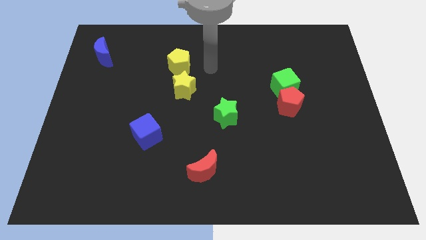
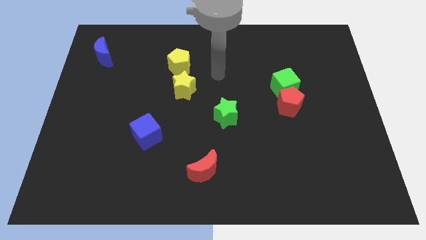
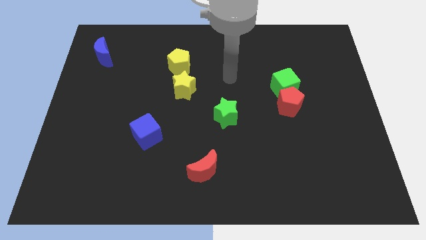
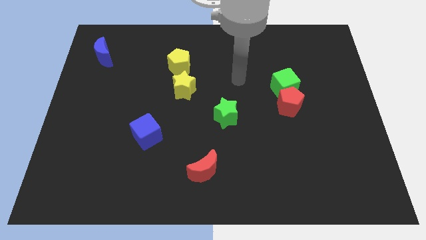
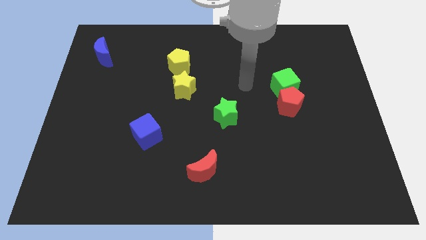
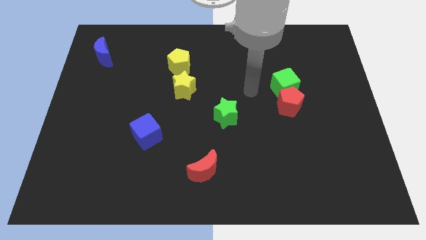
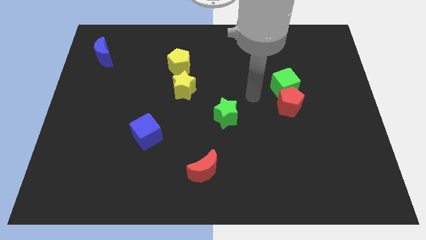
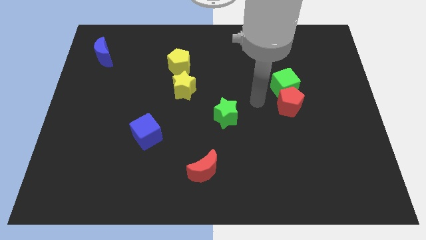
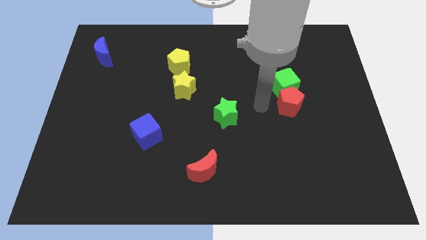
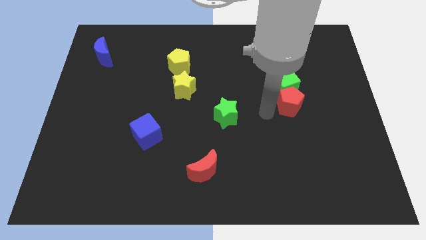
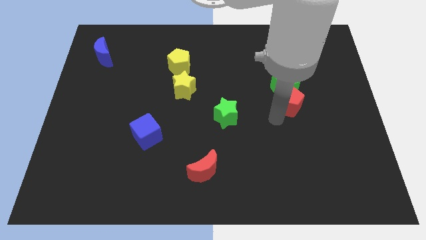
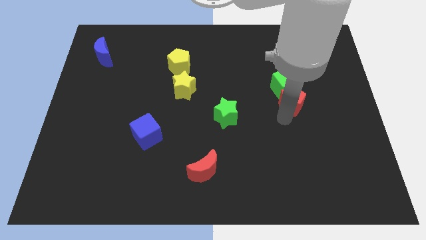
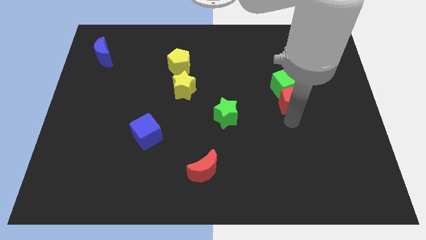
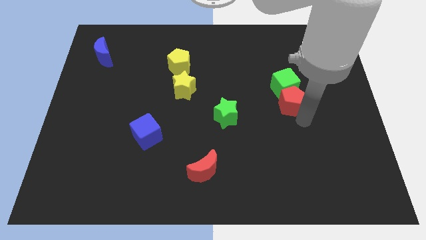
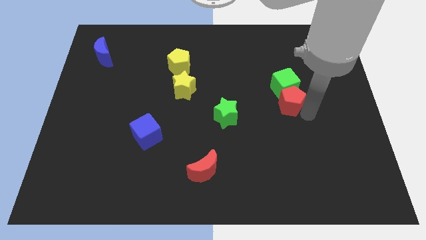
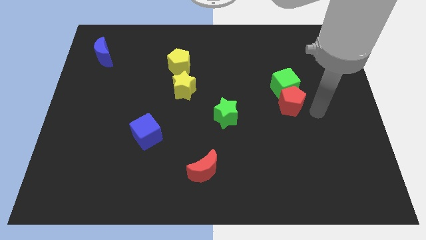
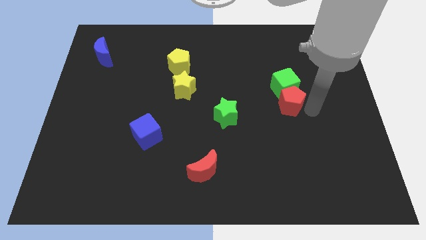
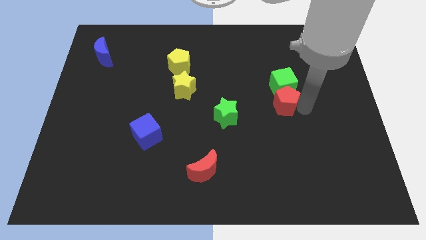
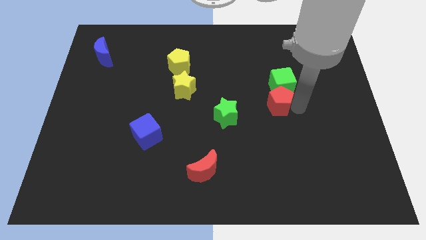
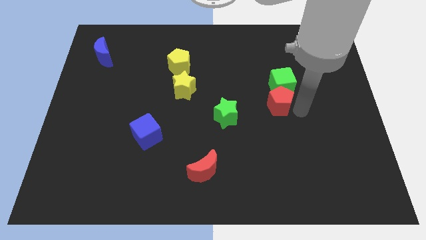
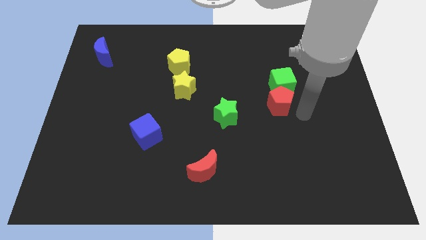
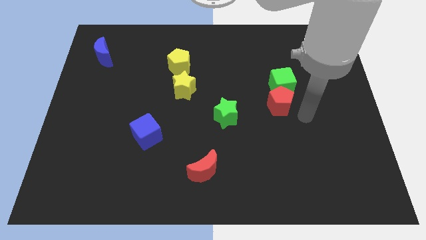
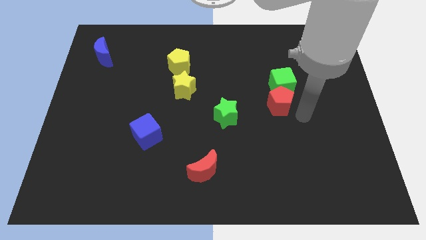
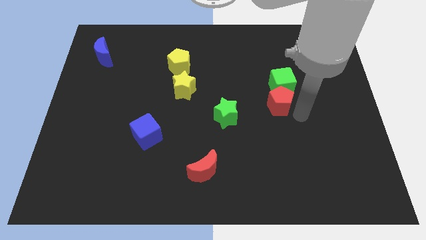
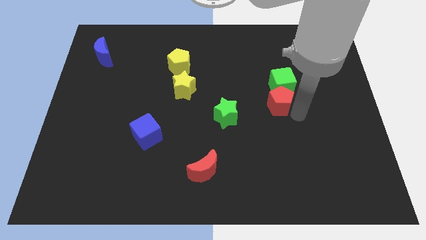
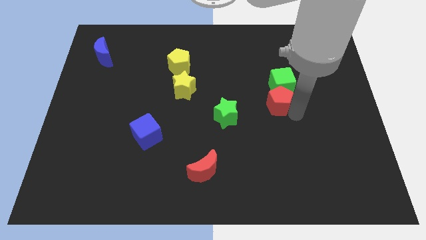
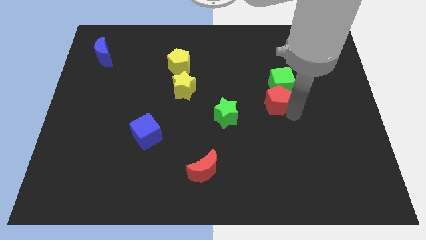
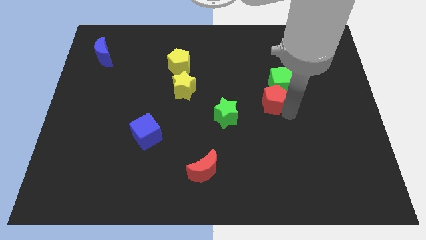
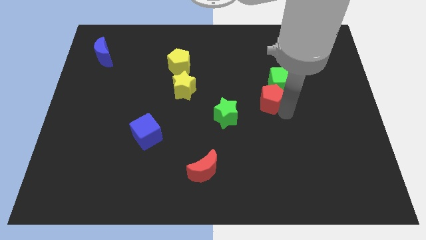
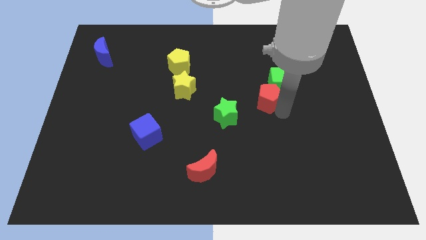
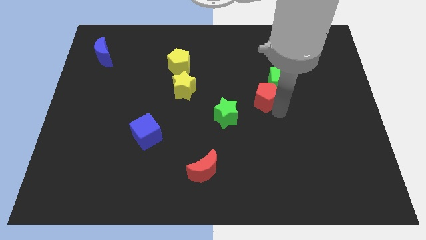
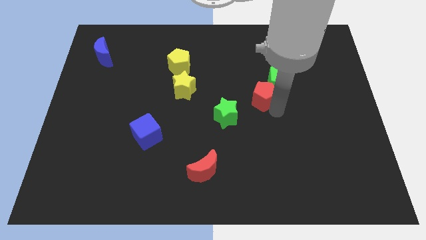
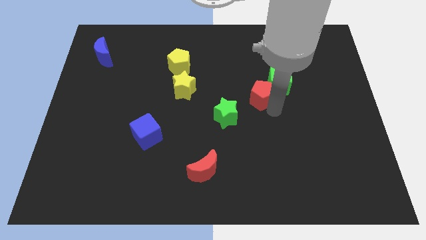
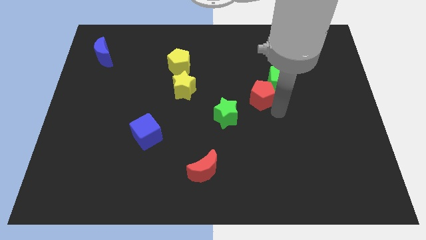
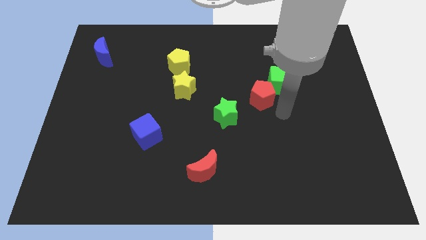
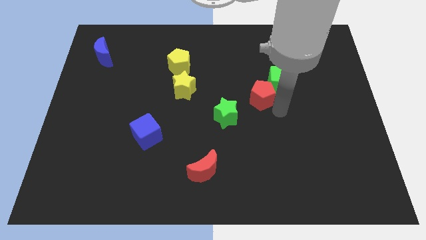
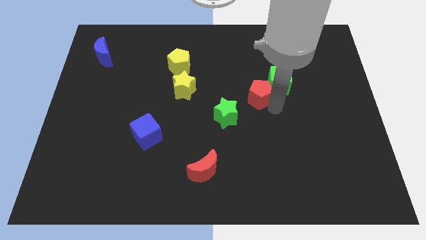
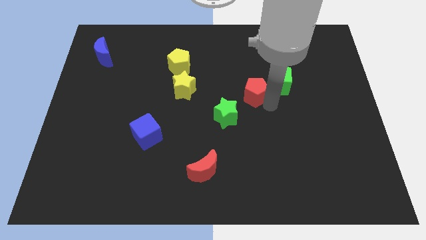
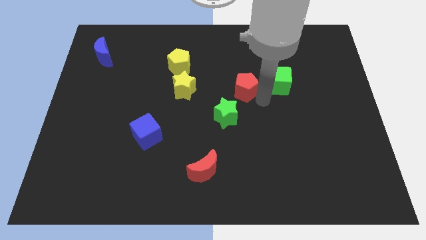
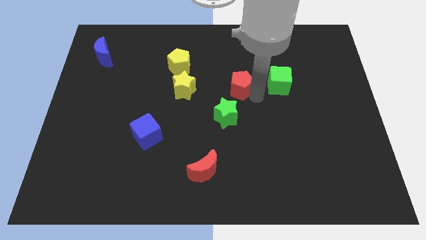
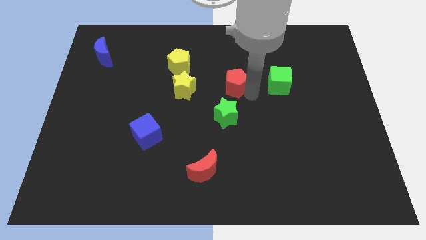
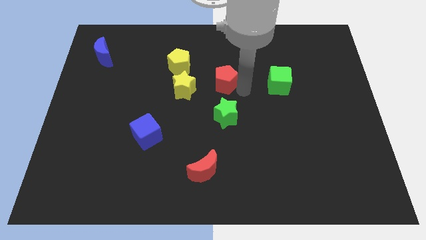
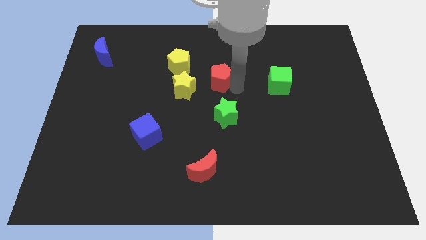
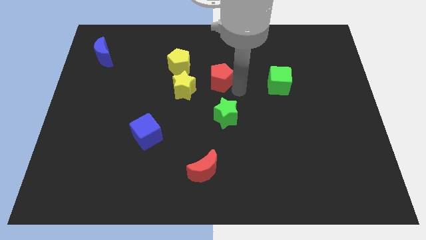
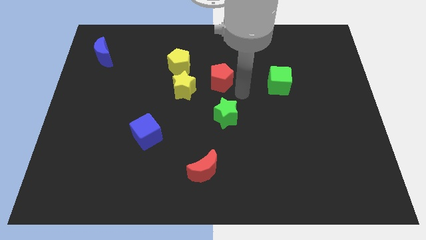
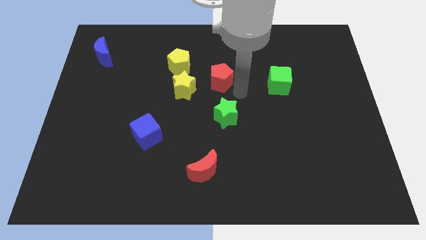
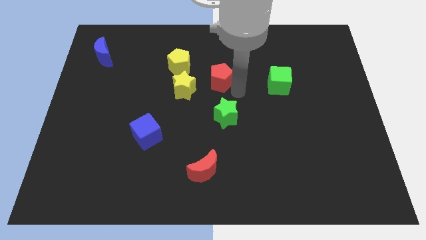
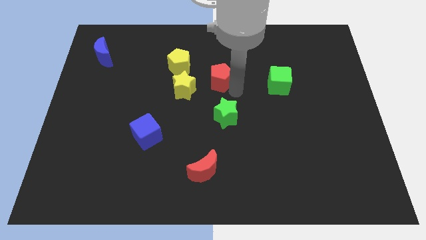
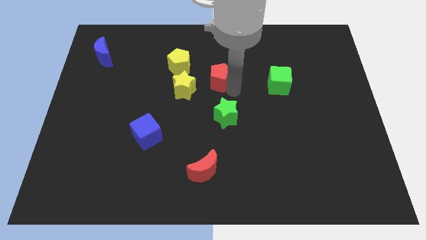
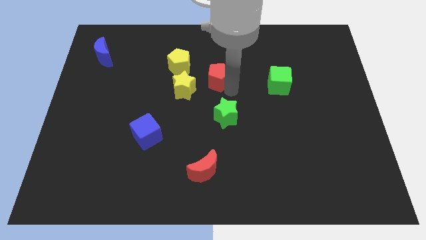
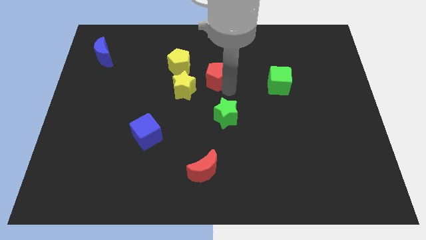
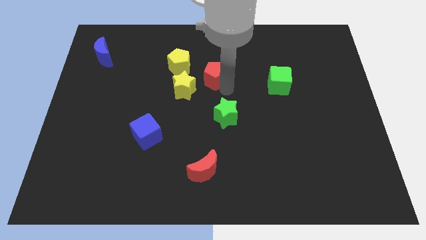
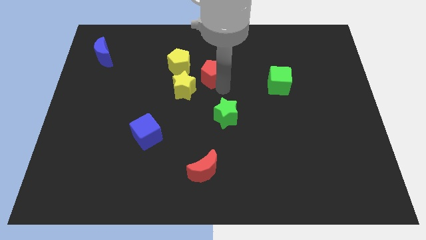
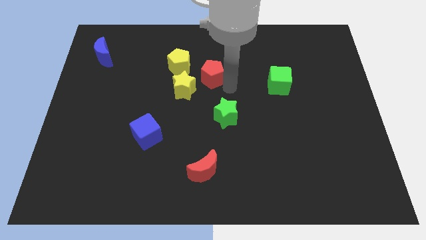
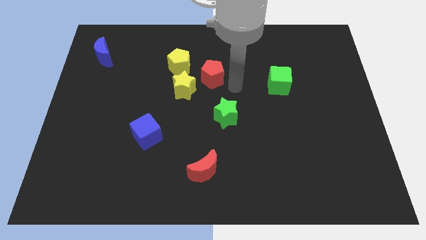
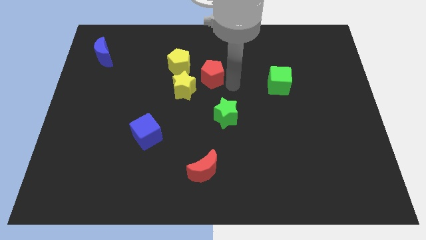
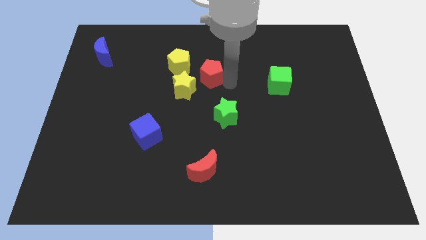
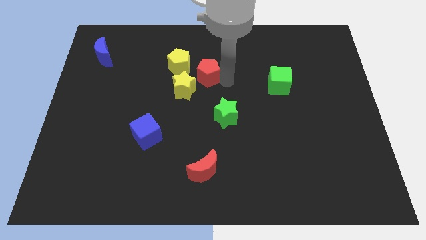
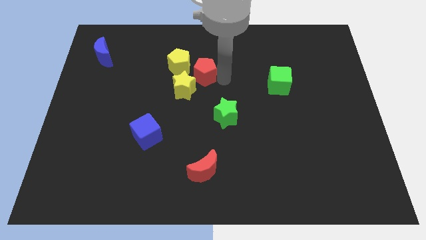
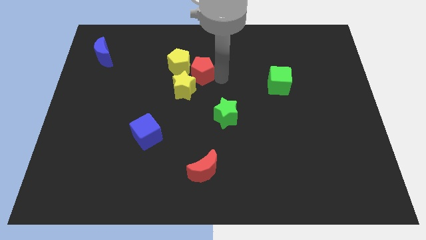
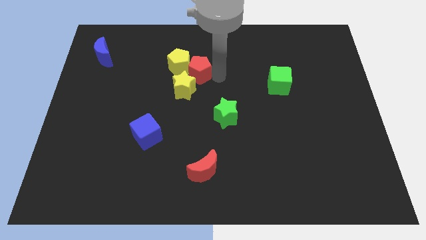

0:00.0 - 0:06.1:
slide the red pentagon to the yellow pentagon

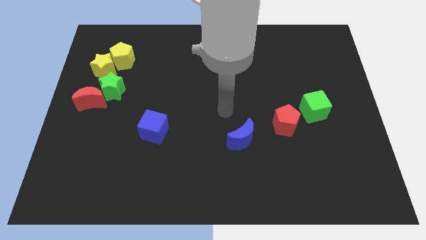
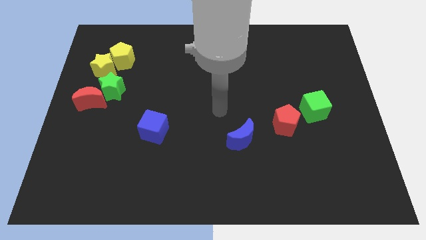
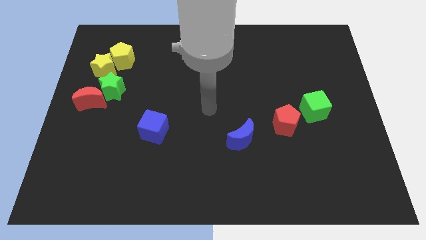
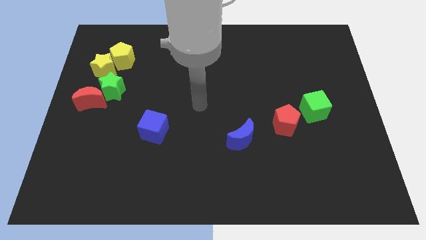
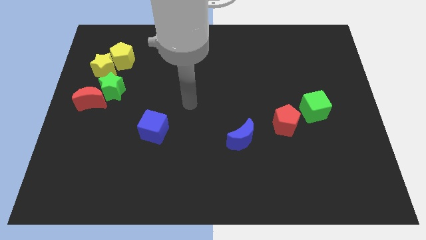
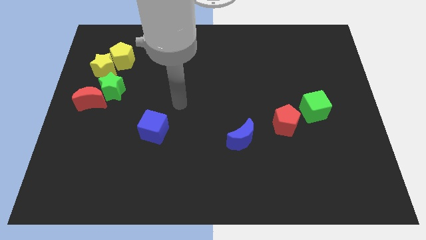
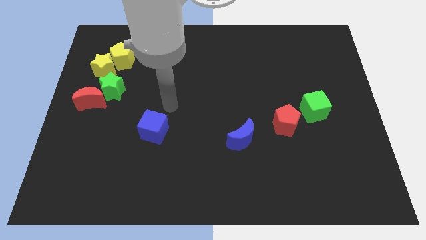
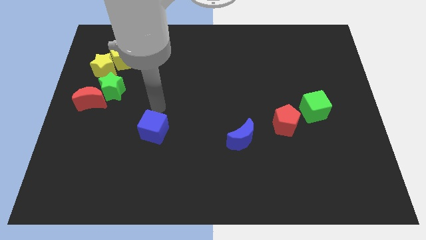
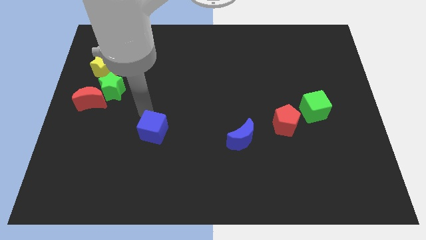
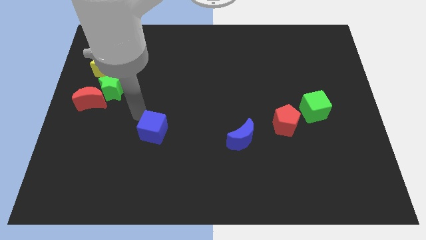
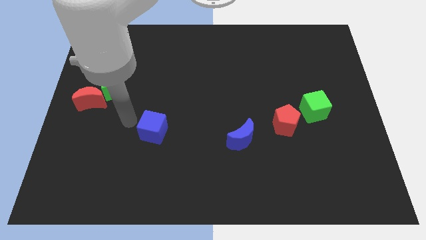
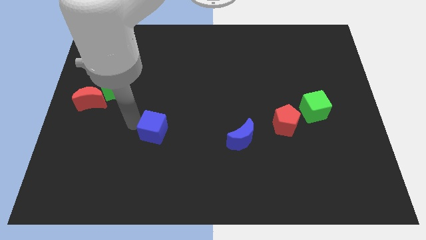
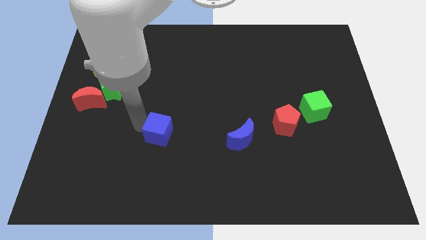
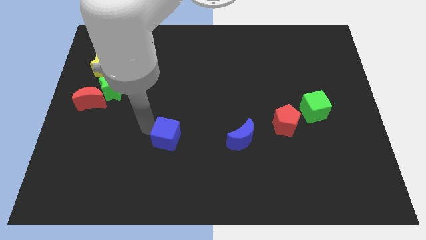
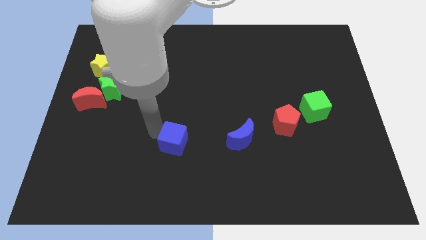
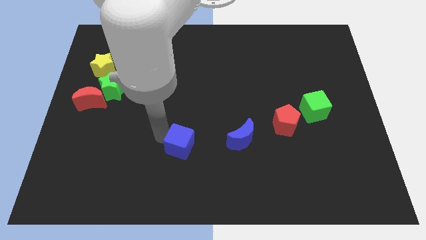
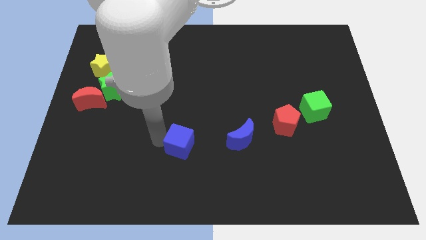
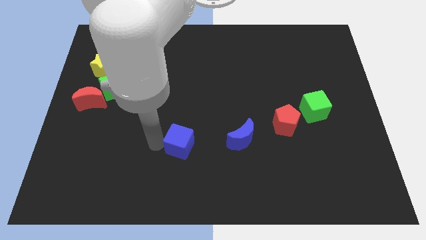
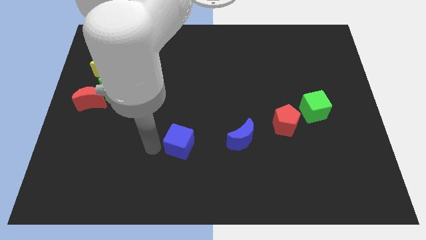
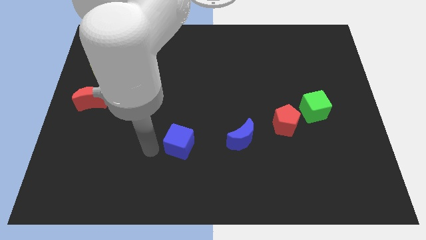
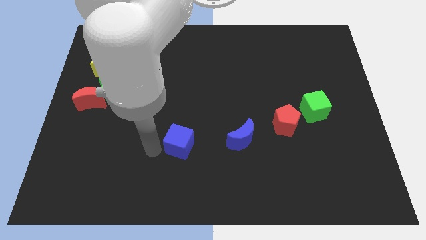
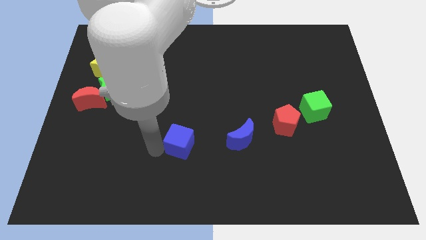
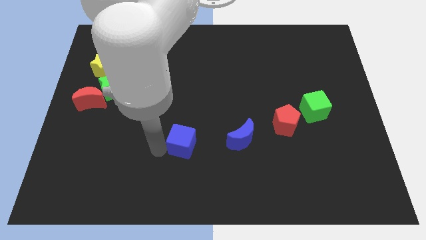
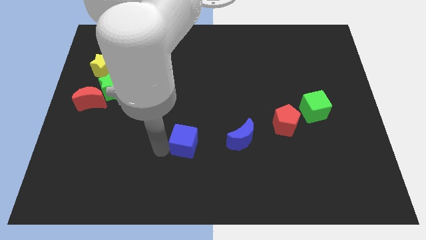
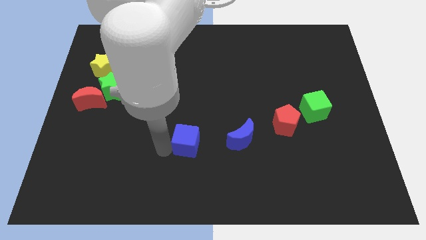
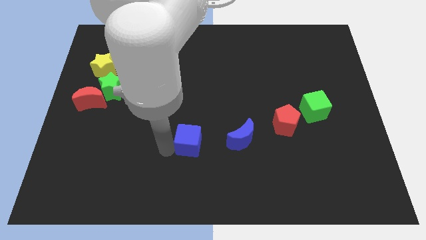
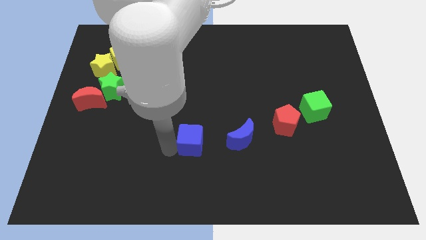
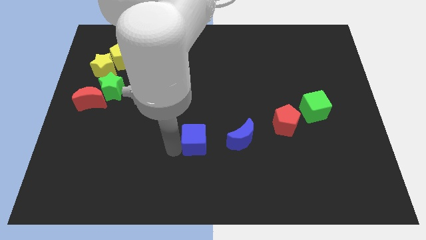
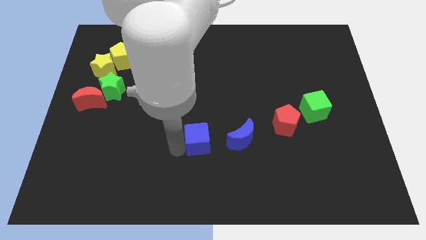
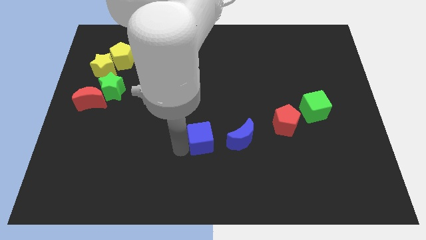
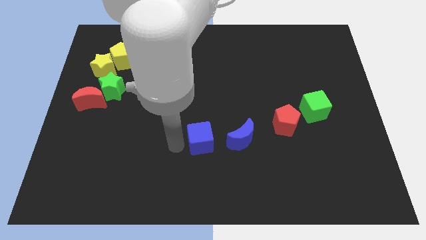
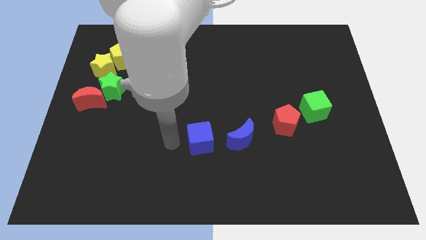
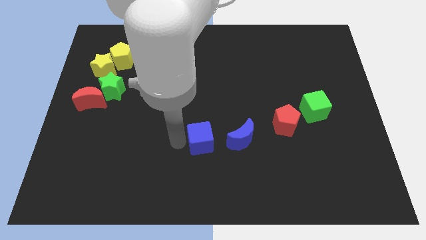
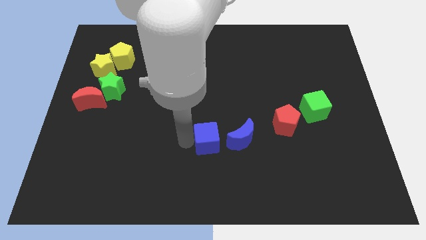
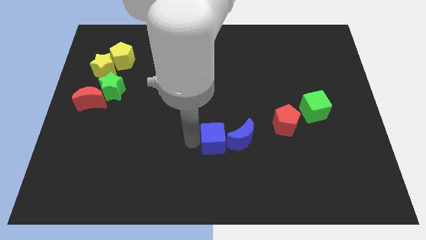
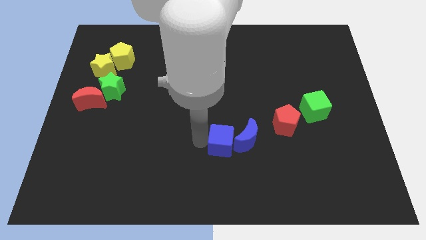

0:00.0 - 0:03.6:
slide the blue cube close to the blue moon
